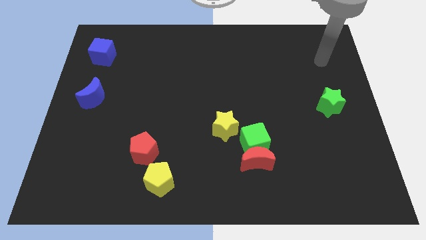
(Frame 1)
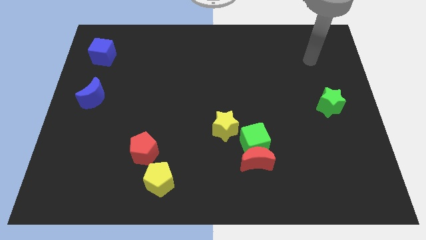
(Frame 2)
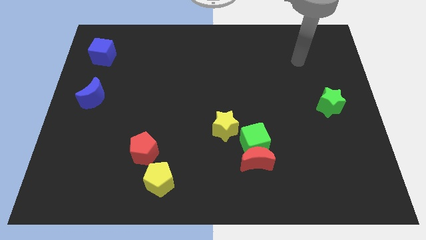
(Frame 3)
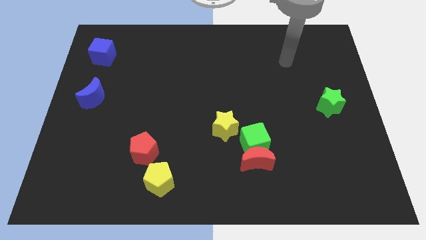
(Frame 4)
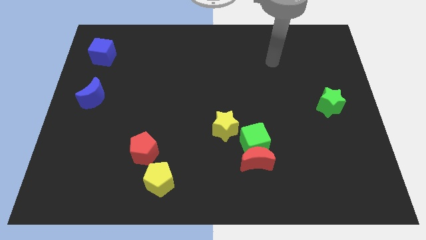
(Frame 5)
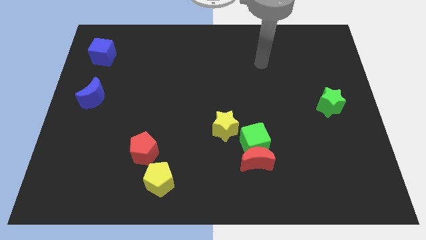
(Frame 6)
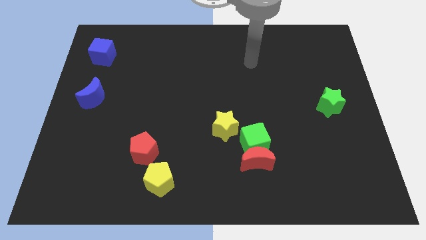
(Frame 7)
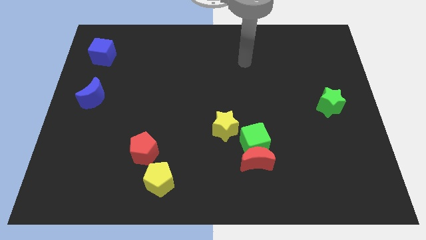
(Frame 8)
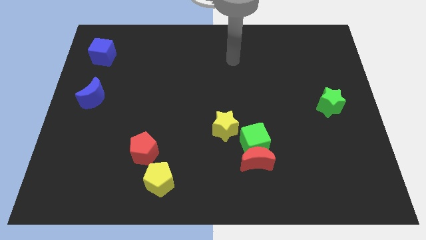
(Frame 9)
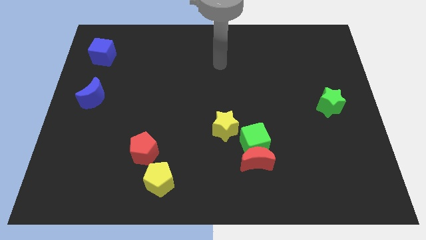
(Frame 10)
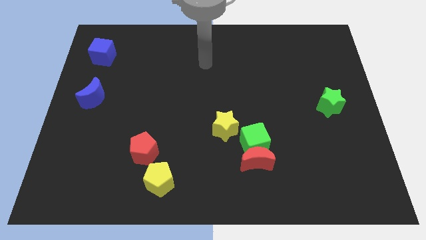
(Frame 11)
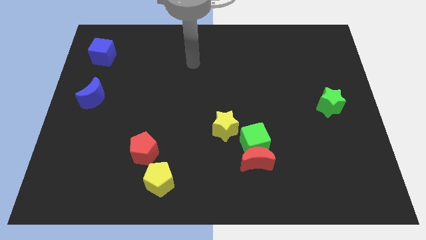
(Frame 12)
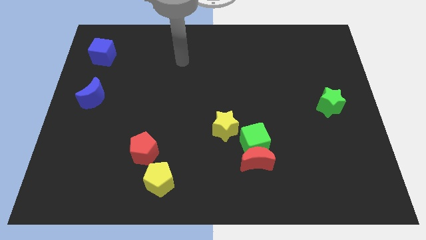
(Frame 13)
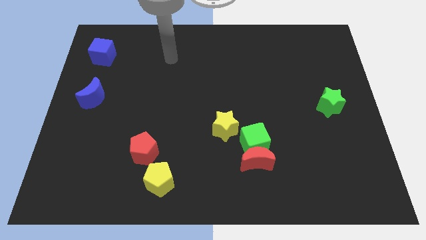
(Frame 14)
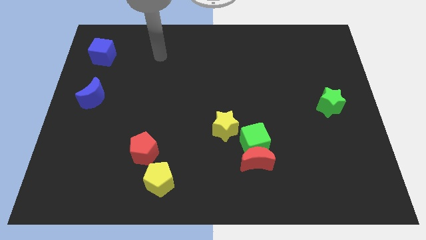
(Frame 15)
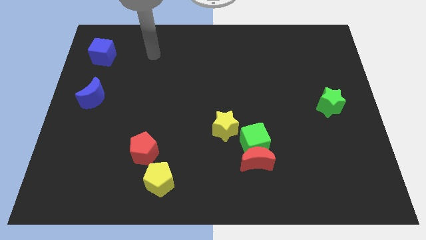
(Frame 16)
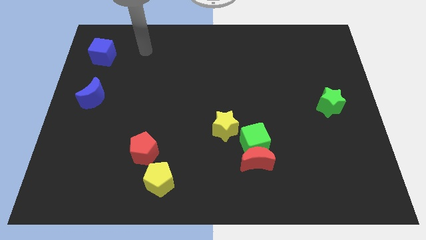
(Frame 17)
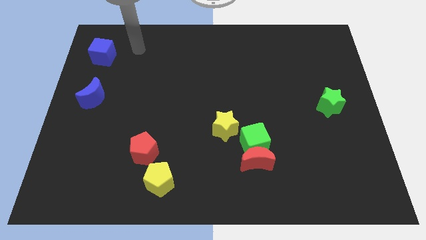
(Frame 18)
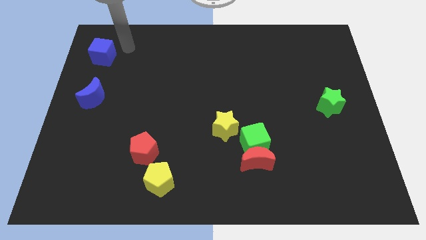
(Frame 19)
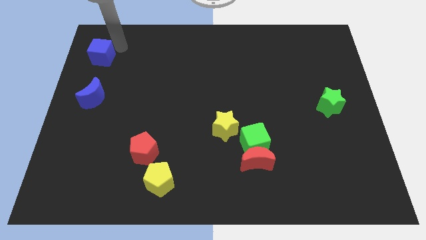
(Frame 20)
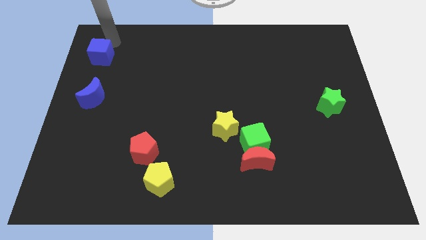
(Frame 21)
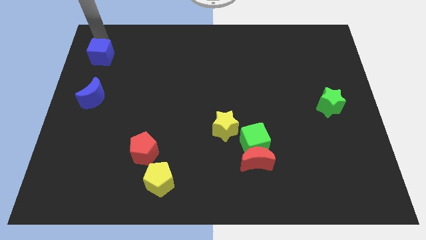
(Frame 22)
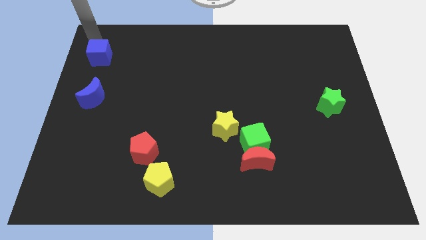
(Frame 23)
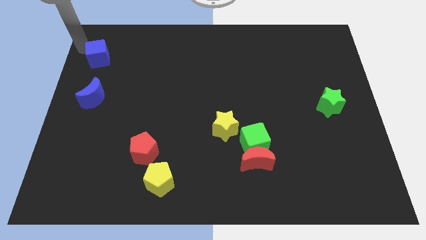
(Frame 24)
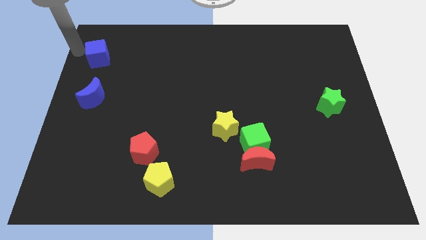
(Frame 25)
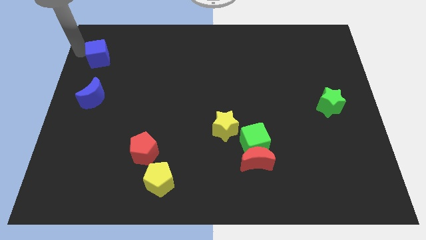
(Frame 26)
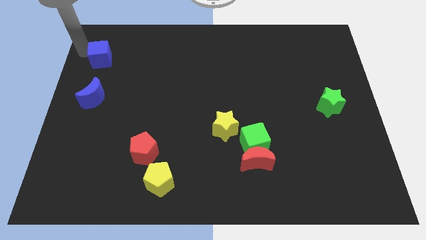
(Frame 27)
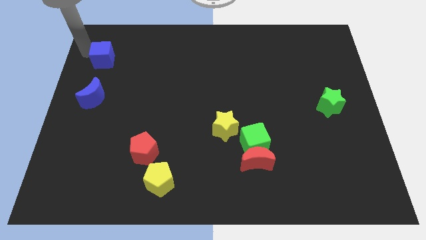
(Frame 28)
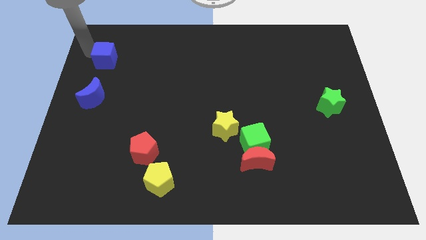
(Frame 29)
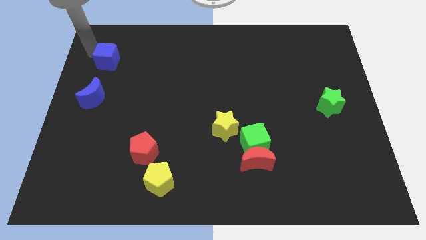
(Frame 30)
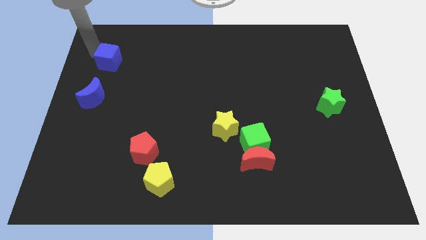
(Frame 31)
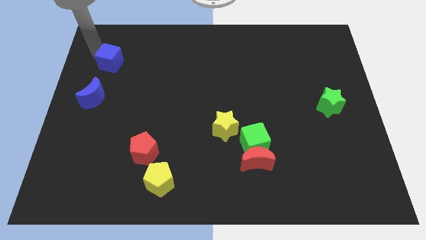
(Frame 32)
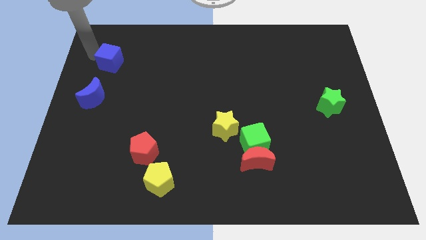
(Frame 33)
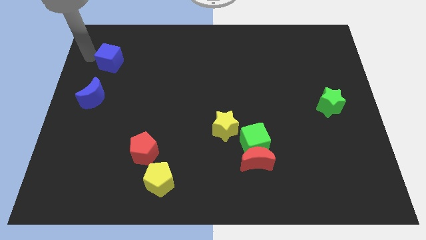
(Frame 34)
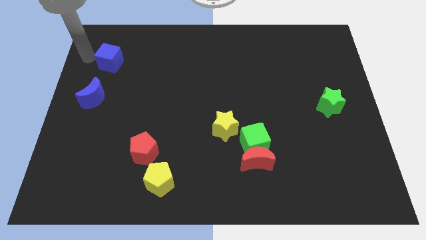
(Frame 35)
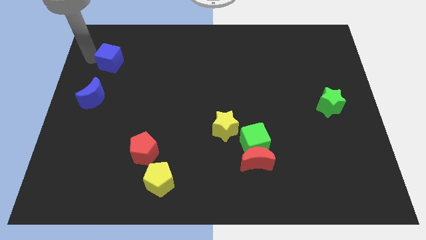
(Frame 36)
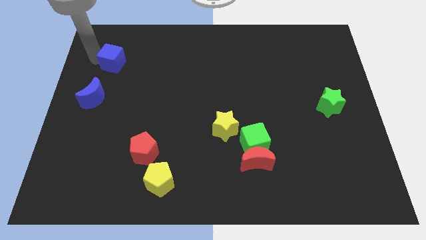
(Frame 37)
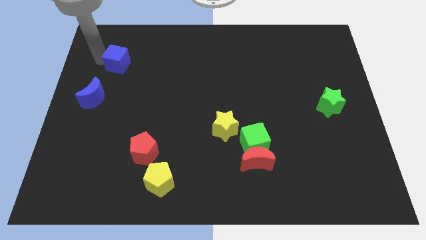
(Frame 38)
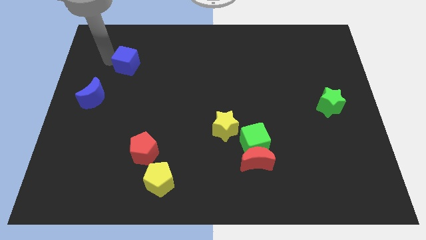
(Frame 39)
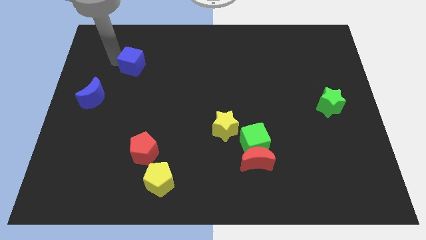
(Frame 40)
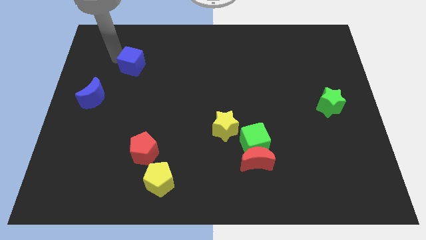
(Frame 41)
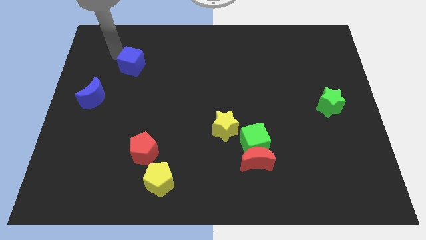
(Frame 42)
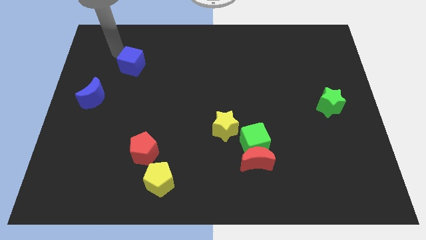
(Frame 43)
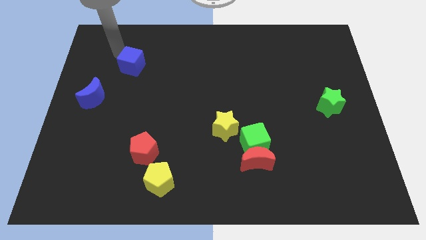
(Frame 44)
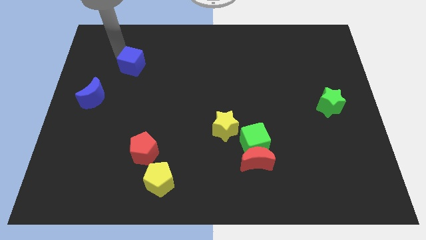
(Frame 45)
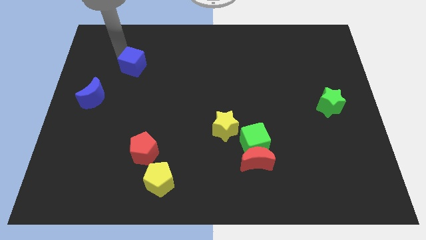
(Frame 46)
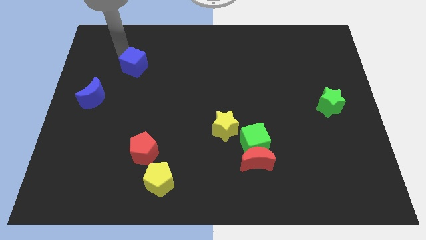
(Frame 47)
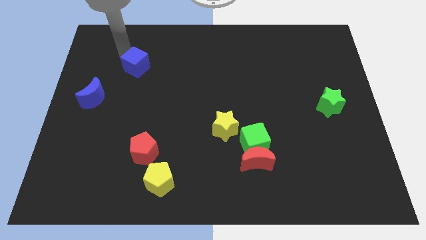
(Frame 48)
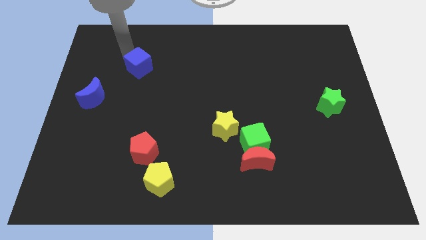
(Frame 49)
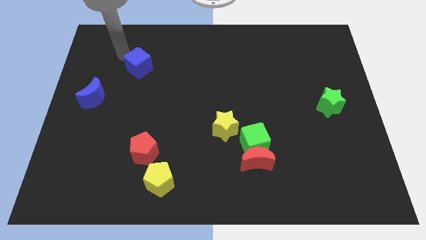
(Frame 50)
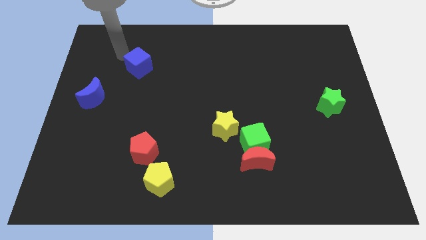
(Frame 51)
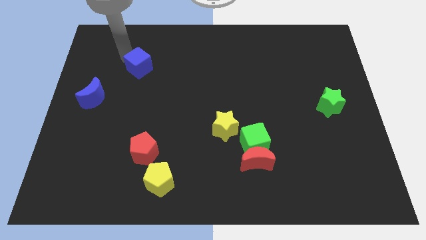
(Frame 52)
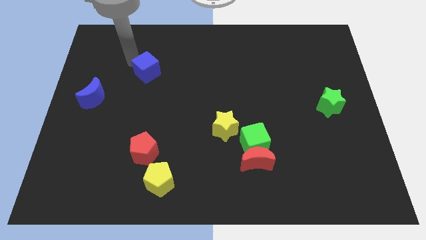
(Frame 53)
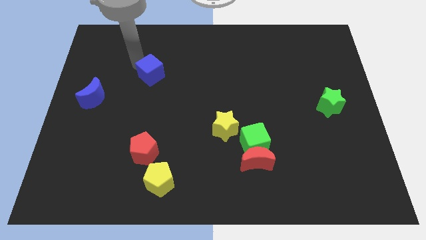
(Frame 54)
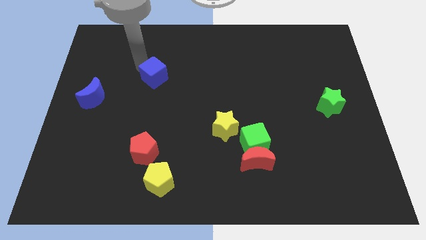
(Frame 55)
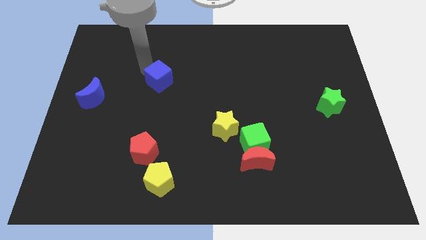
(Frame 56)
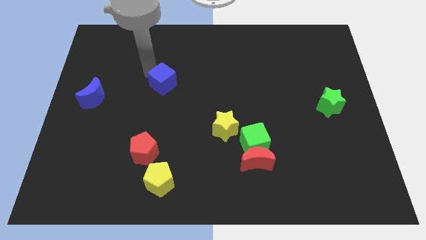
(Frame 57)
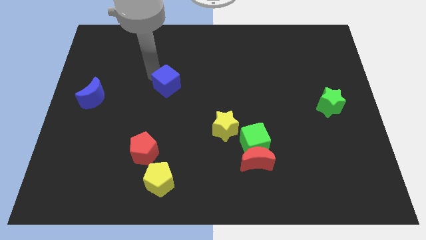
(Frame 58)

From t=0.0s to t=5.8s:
put the blue cube to the center

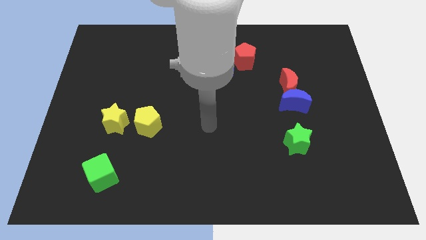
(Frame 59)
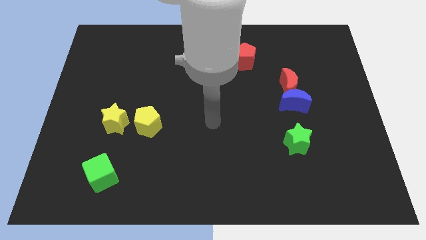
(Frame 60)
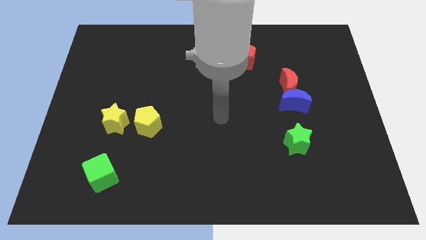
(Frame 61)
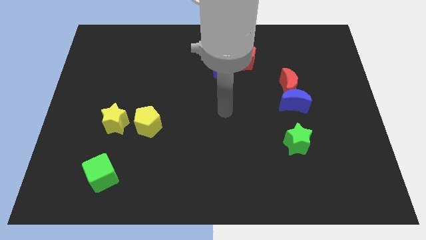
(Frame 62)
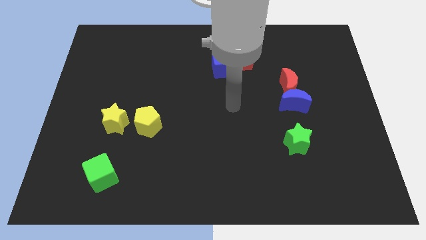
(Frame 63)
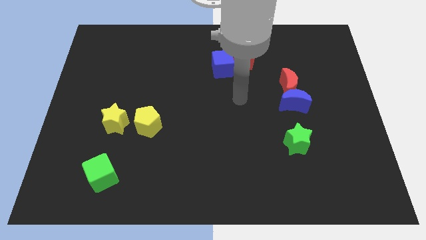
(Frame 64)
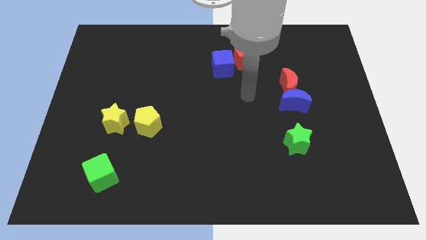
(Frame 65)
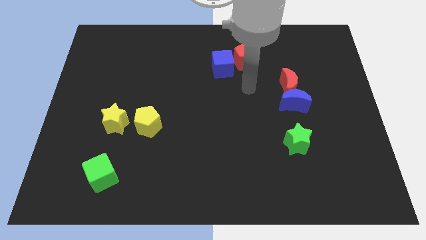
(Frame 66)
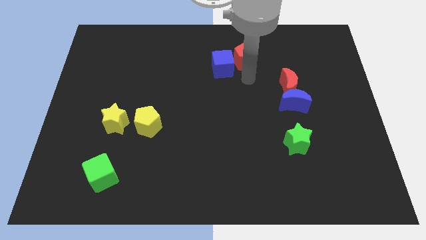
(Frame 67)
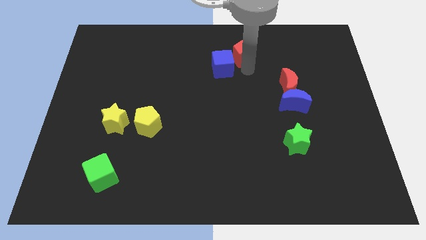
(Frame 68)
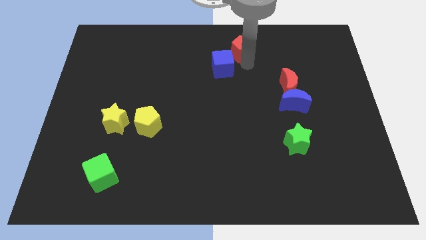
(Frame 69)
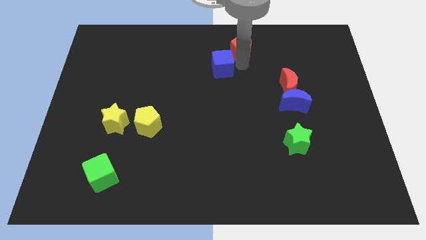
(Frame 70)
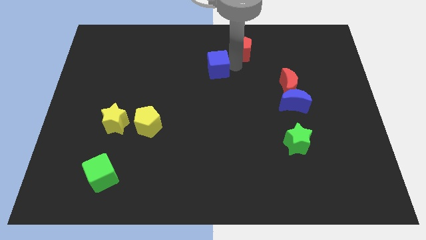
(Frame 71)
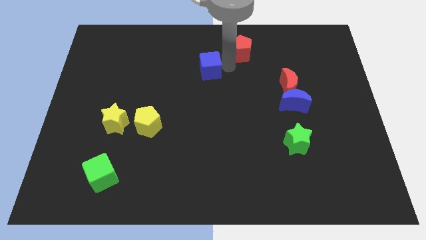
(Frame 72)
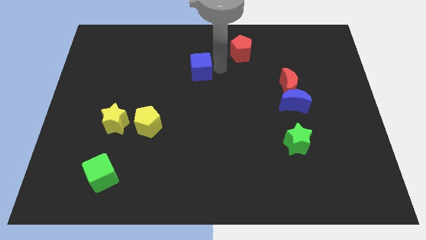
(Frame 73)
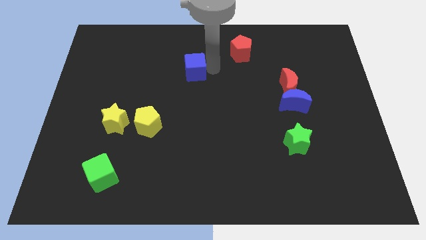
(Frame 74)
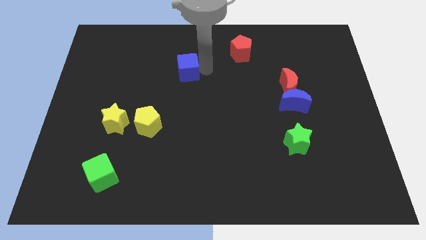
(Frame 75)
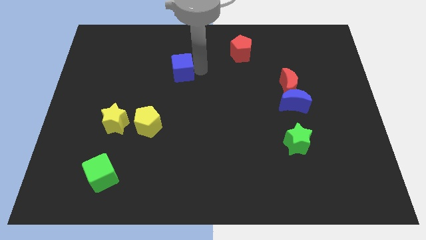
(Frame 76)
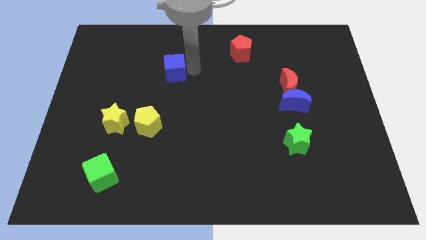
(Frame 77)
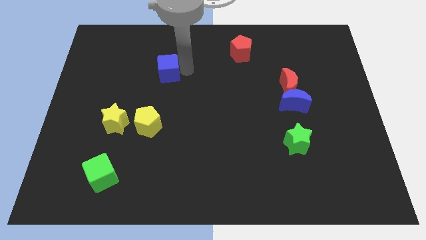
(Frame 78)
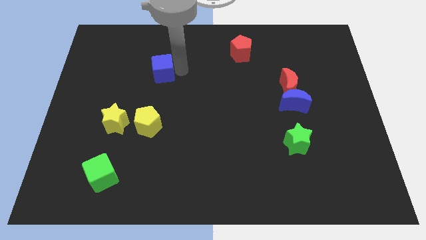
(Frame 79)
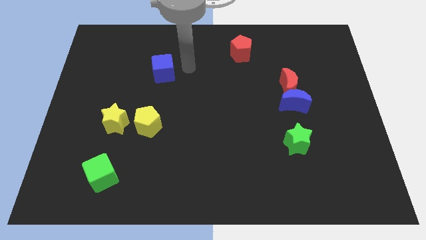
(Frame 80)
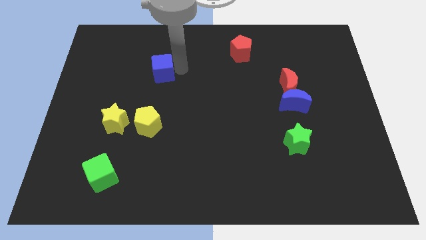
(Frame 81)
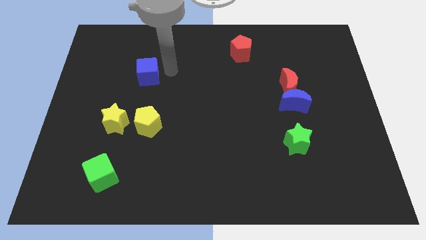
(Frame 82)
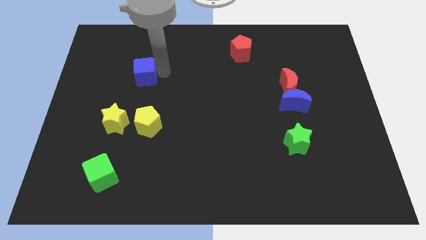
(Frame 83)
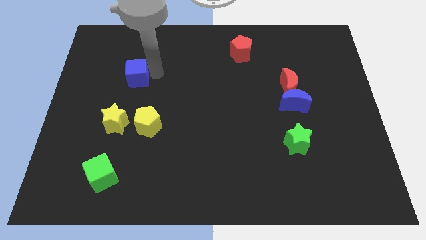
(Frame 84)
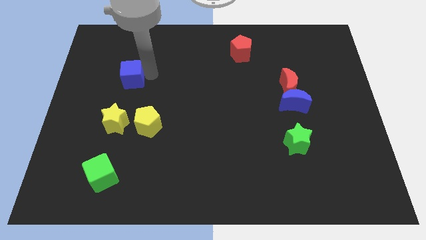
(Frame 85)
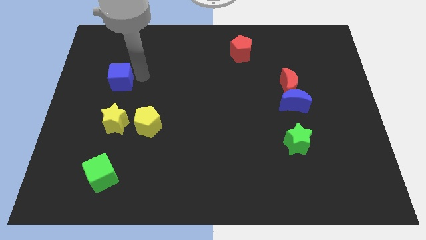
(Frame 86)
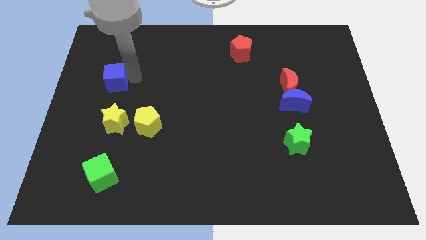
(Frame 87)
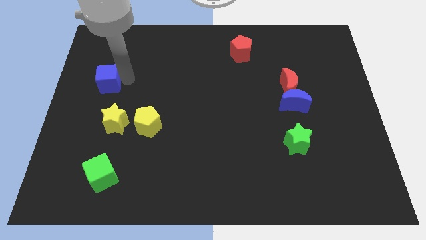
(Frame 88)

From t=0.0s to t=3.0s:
put the blue cube to the left side
